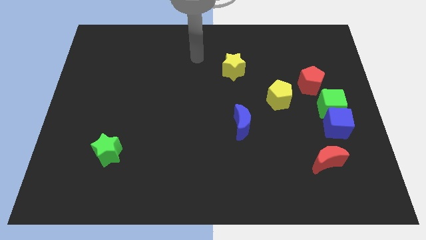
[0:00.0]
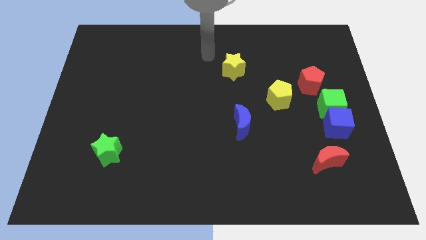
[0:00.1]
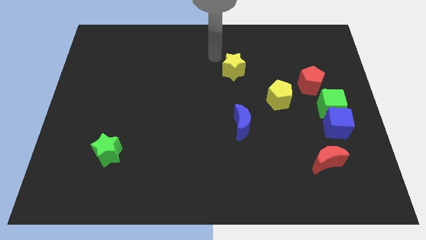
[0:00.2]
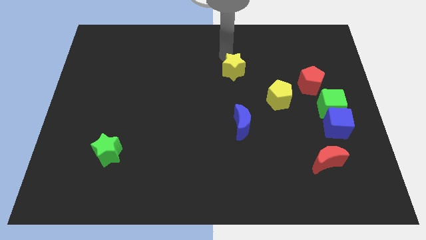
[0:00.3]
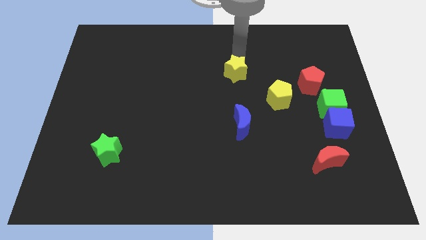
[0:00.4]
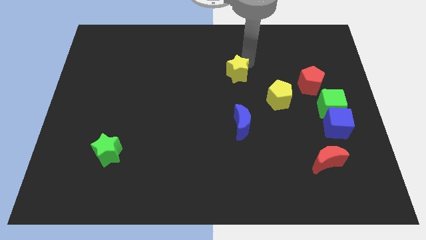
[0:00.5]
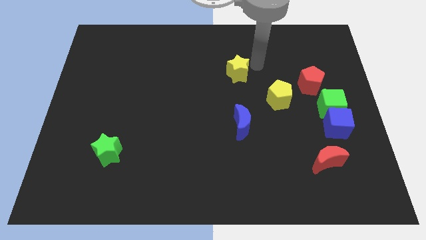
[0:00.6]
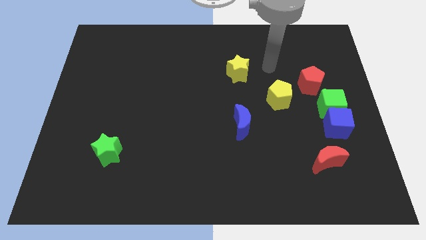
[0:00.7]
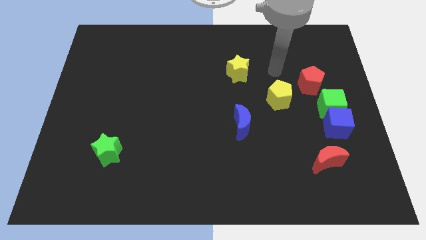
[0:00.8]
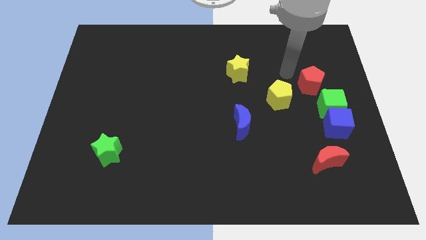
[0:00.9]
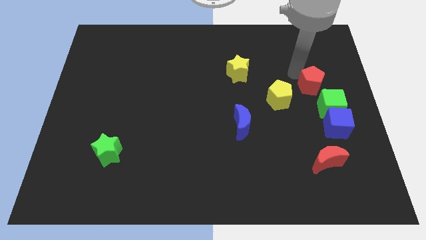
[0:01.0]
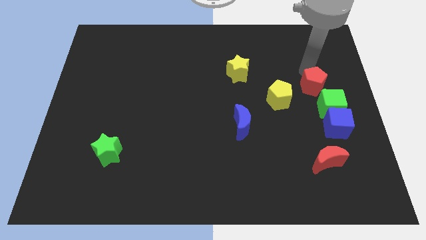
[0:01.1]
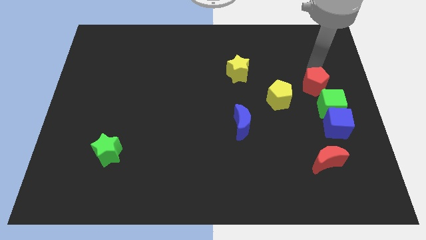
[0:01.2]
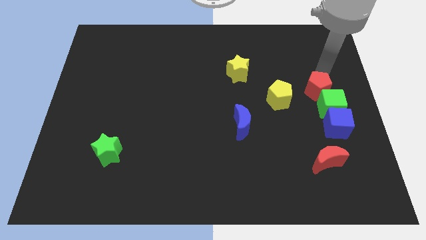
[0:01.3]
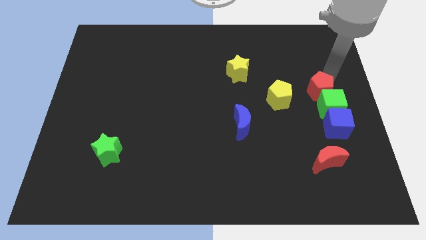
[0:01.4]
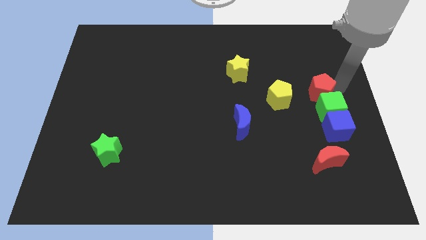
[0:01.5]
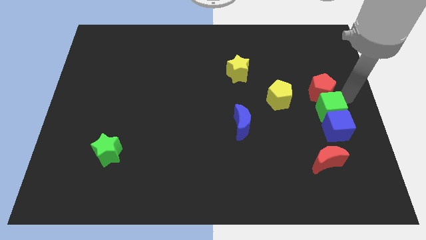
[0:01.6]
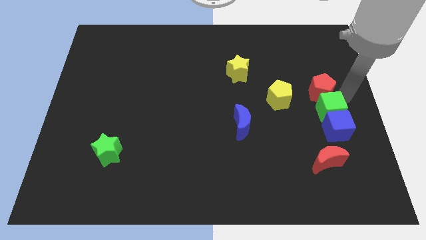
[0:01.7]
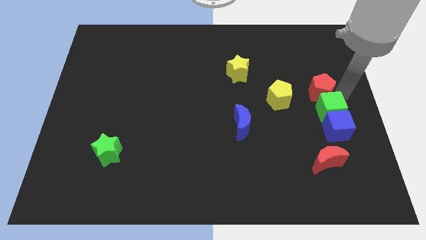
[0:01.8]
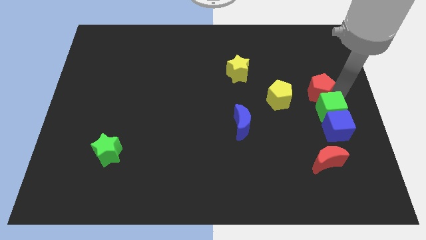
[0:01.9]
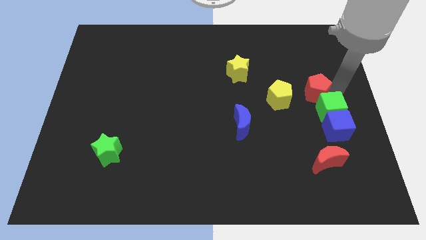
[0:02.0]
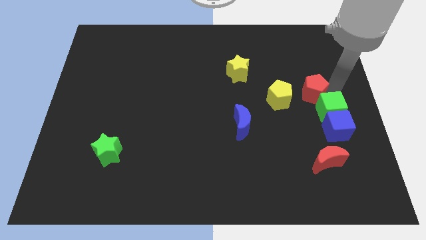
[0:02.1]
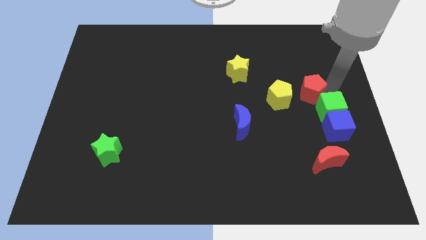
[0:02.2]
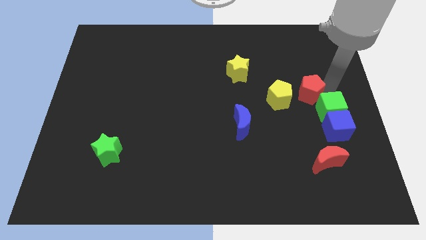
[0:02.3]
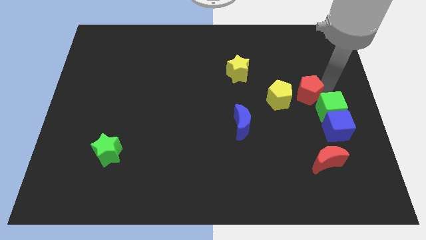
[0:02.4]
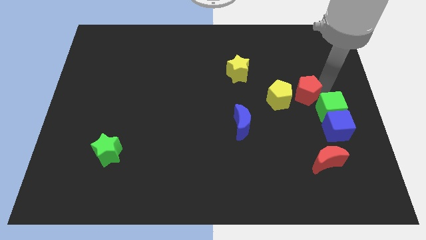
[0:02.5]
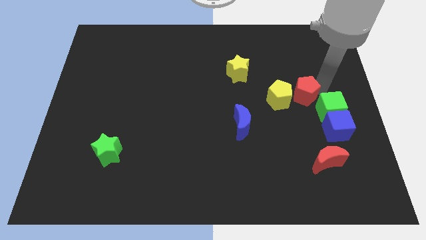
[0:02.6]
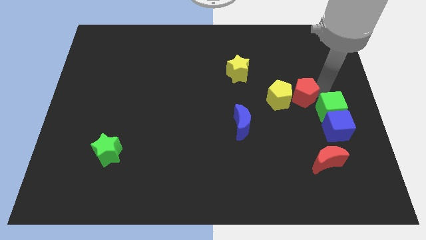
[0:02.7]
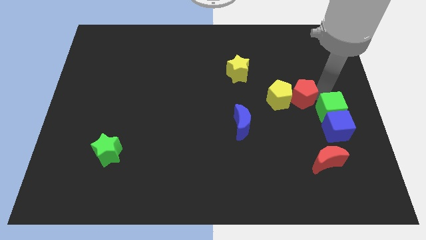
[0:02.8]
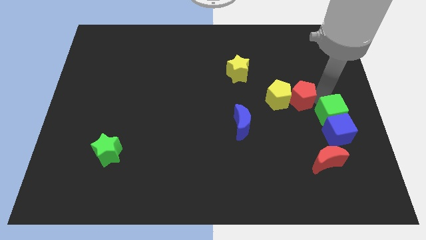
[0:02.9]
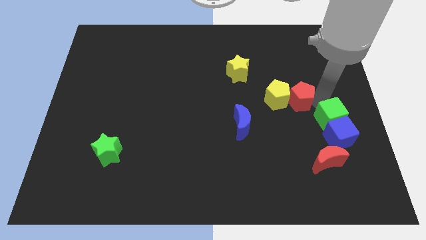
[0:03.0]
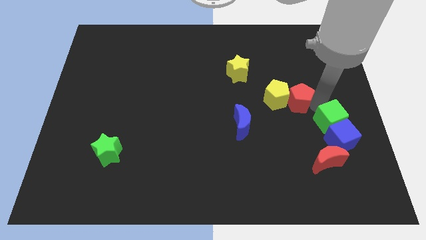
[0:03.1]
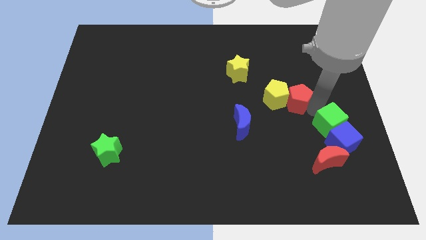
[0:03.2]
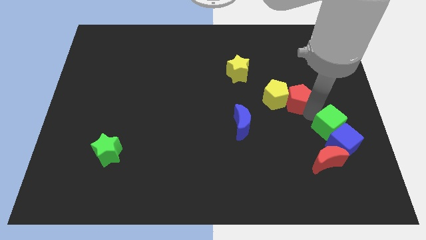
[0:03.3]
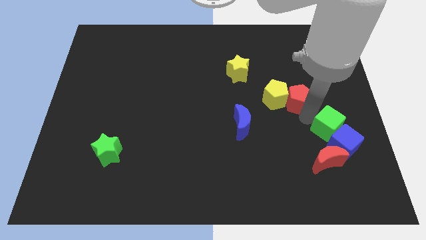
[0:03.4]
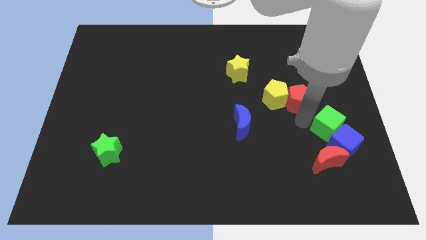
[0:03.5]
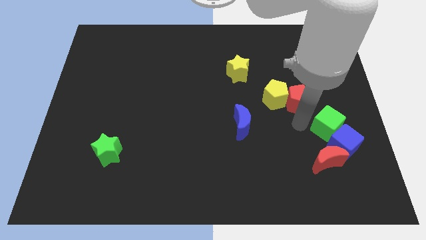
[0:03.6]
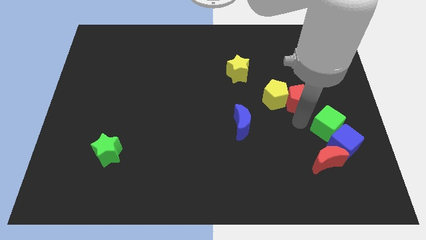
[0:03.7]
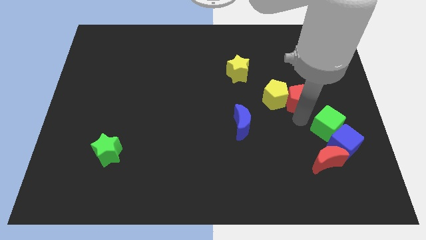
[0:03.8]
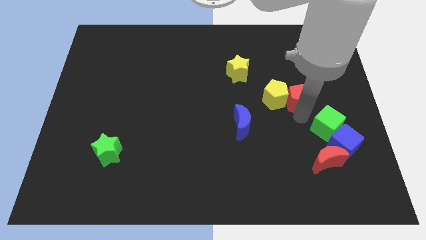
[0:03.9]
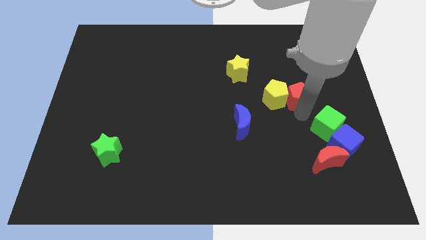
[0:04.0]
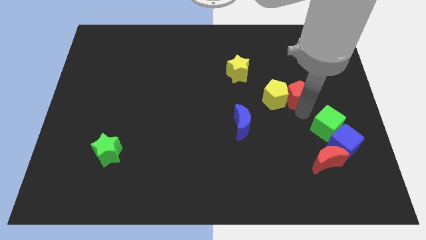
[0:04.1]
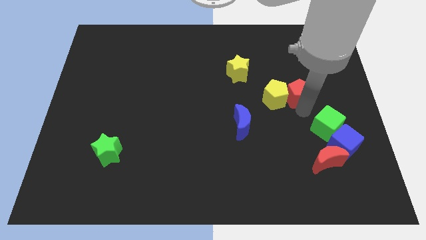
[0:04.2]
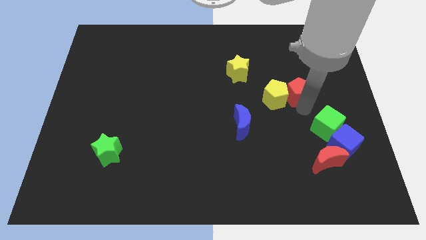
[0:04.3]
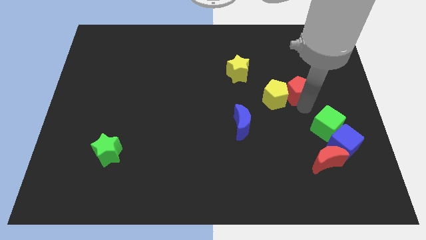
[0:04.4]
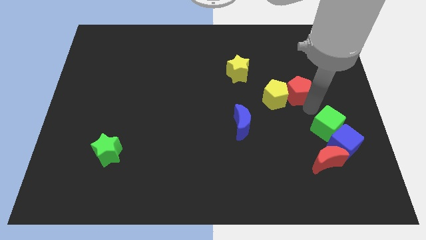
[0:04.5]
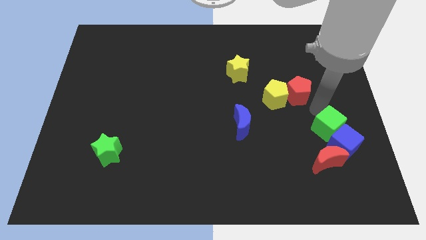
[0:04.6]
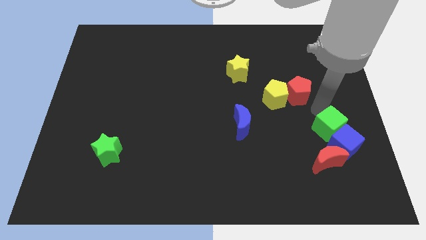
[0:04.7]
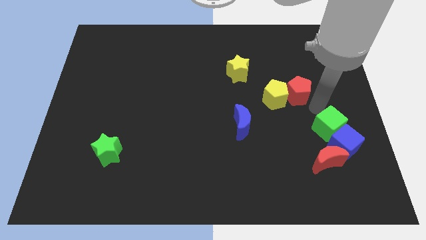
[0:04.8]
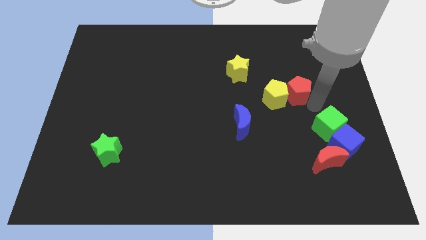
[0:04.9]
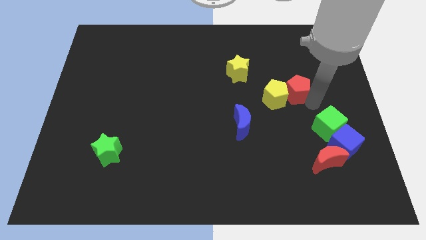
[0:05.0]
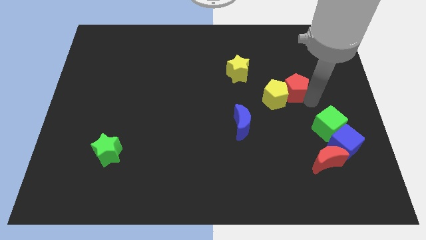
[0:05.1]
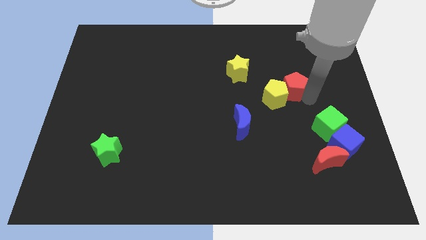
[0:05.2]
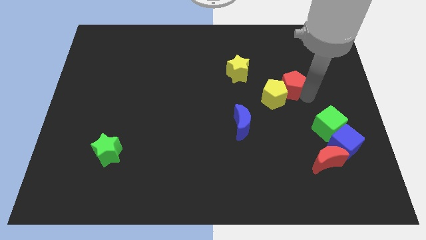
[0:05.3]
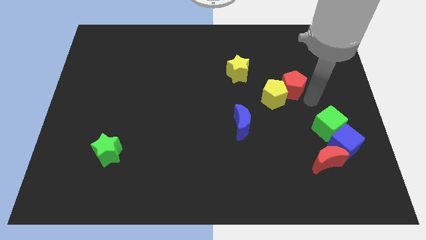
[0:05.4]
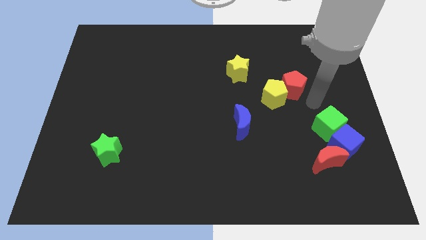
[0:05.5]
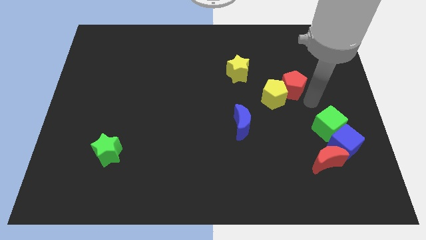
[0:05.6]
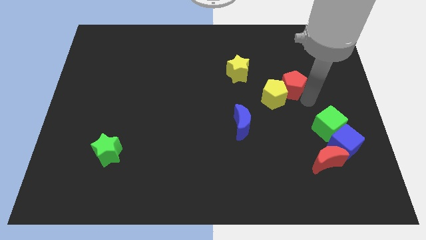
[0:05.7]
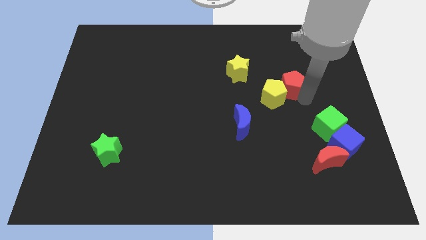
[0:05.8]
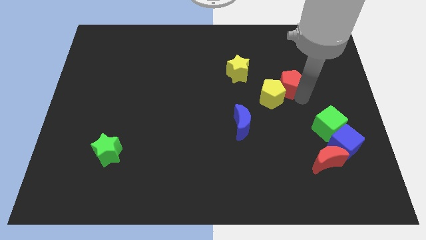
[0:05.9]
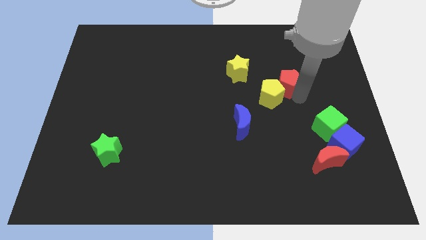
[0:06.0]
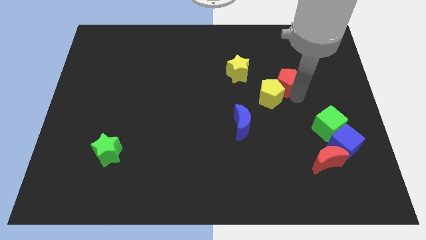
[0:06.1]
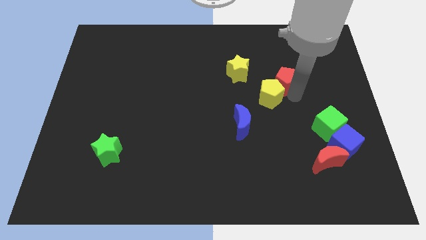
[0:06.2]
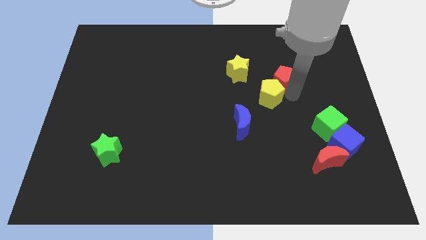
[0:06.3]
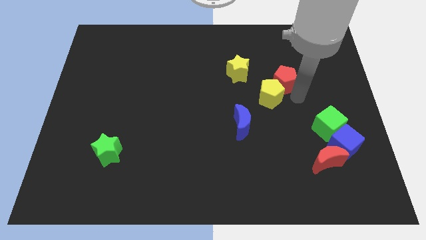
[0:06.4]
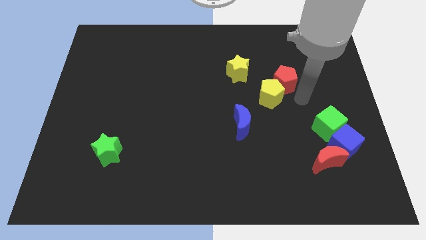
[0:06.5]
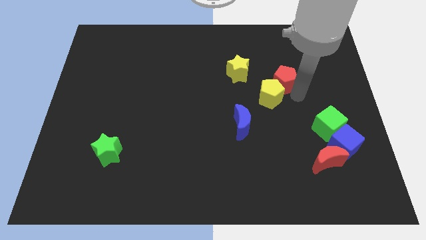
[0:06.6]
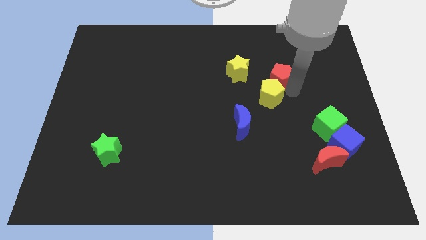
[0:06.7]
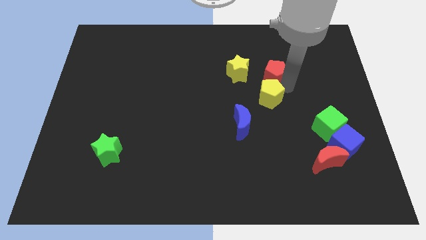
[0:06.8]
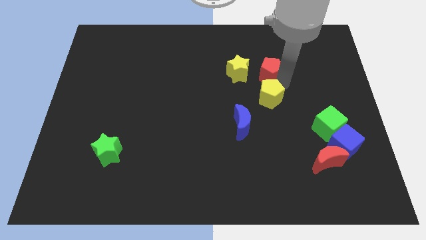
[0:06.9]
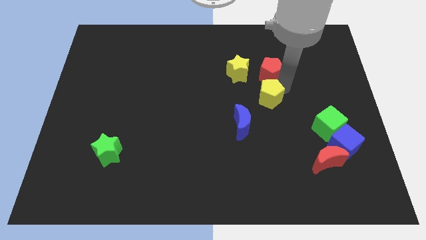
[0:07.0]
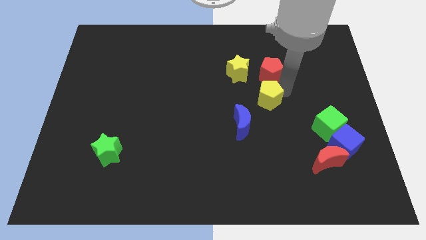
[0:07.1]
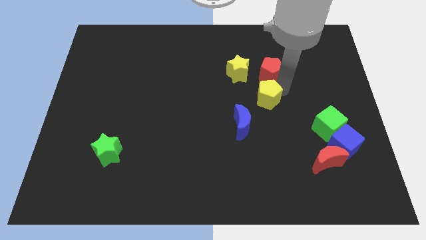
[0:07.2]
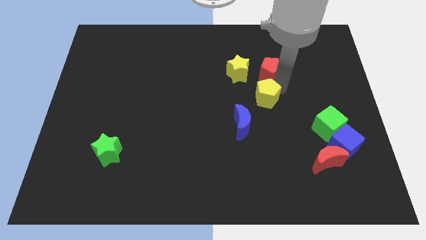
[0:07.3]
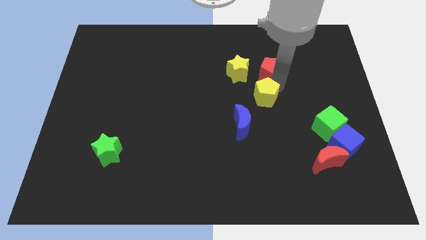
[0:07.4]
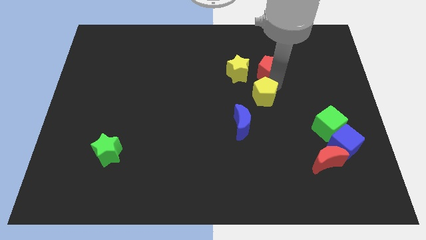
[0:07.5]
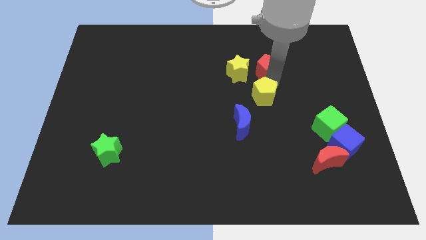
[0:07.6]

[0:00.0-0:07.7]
put the red pentagon diagonally up and to the right of the yellow star
